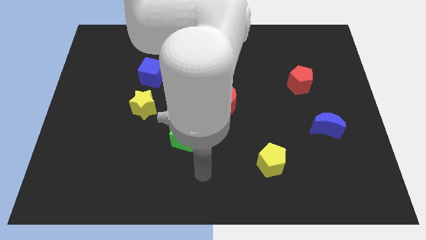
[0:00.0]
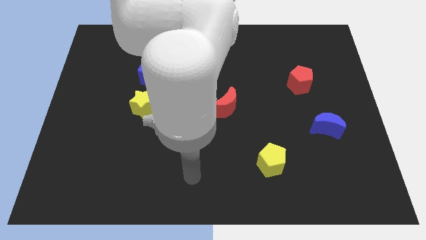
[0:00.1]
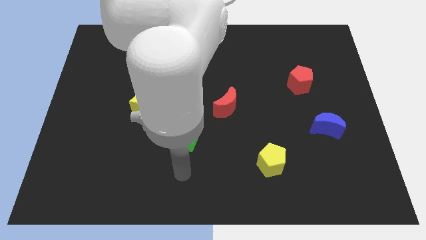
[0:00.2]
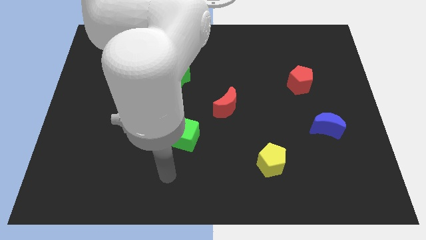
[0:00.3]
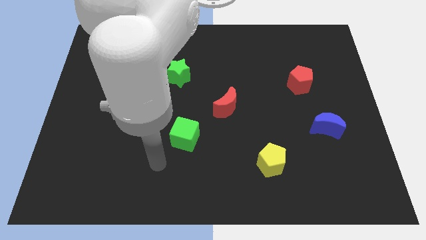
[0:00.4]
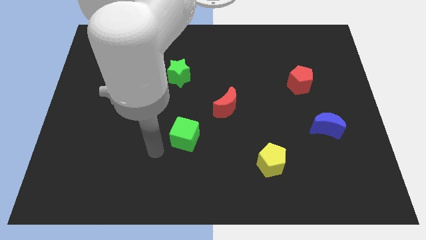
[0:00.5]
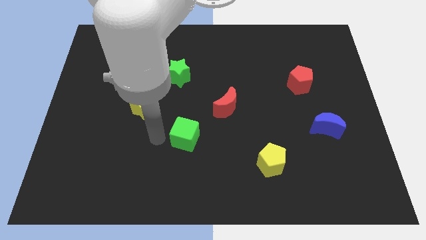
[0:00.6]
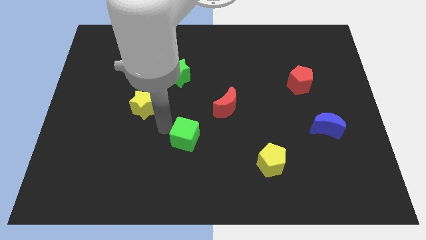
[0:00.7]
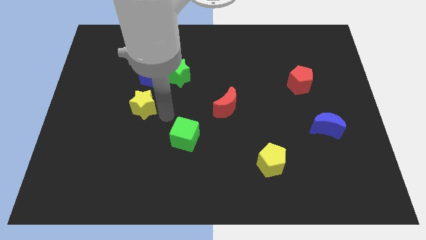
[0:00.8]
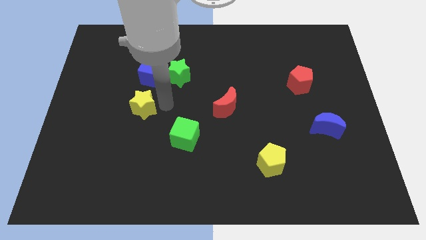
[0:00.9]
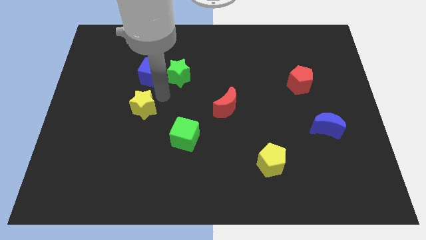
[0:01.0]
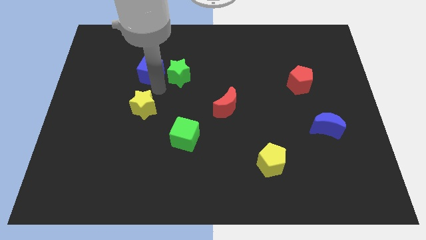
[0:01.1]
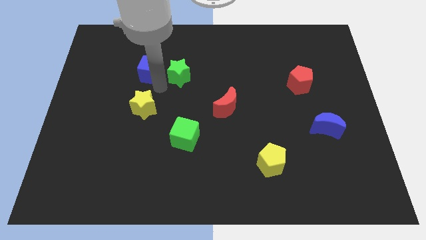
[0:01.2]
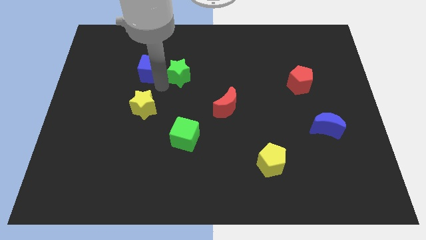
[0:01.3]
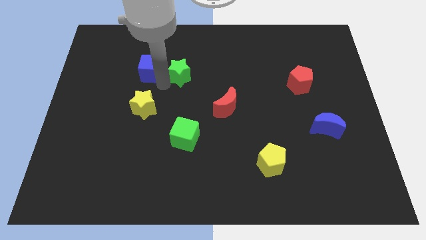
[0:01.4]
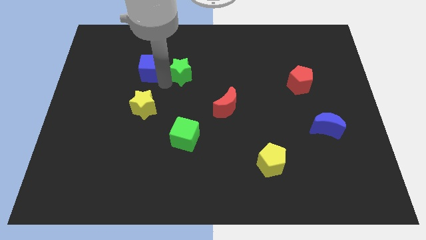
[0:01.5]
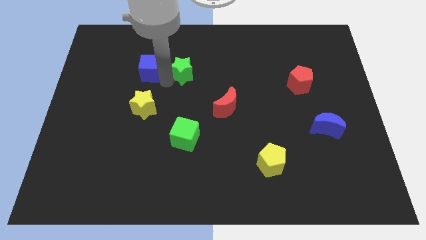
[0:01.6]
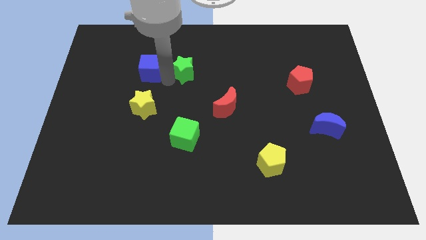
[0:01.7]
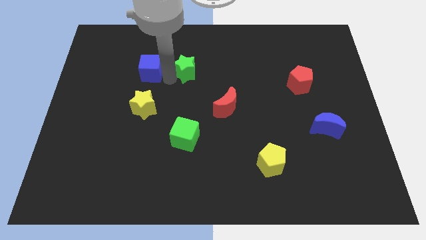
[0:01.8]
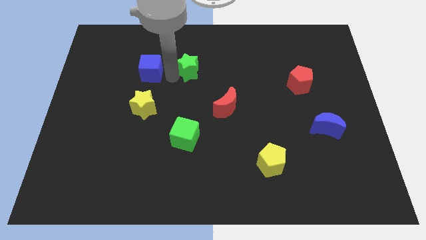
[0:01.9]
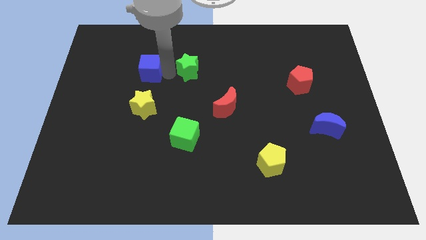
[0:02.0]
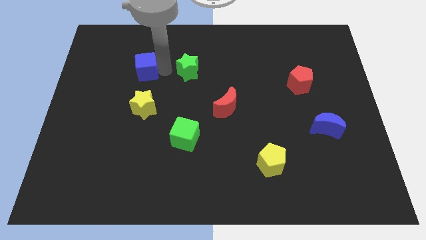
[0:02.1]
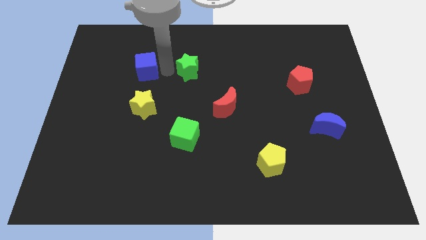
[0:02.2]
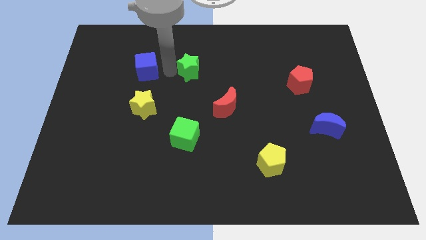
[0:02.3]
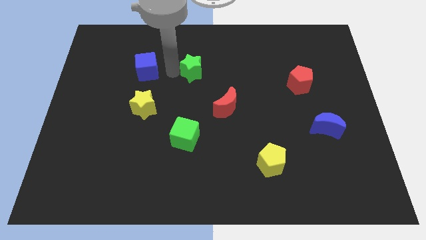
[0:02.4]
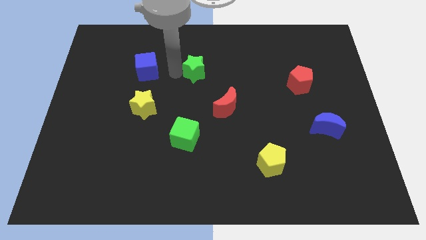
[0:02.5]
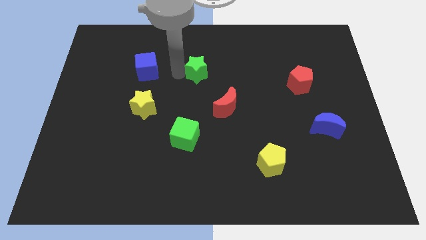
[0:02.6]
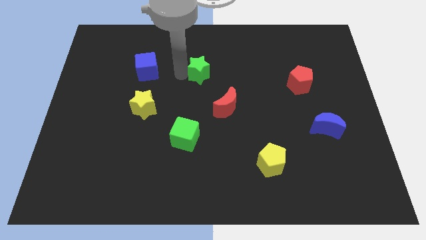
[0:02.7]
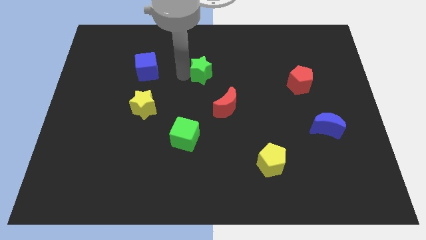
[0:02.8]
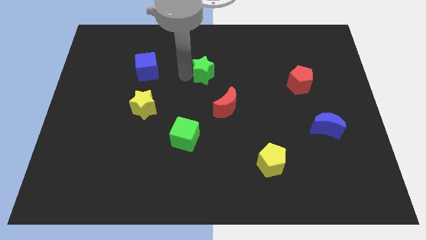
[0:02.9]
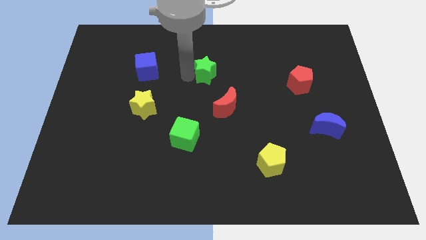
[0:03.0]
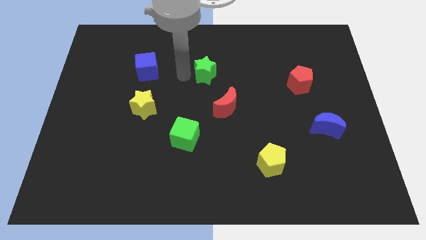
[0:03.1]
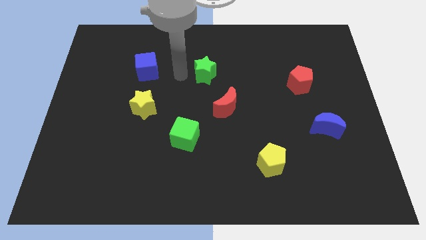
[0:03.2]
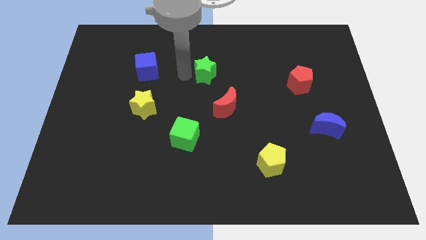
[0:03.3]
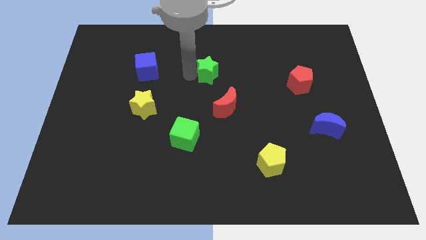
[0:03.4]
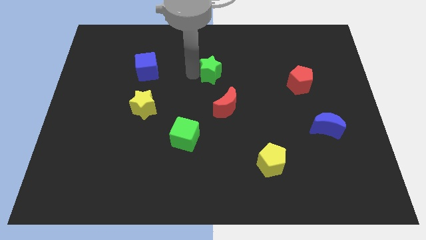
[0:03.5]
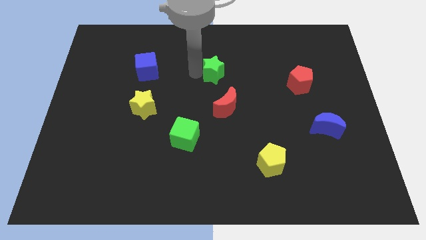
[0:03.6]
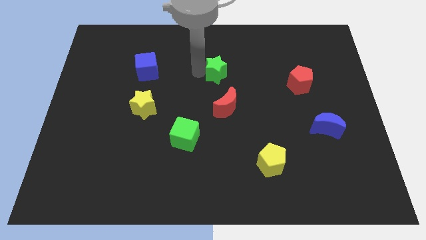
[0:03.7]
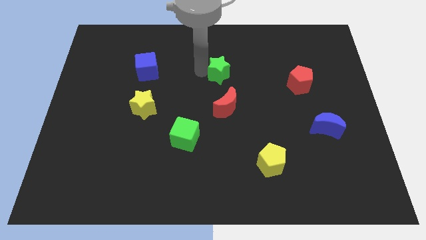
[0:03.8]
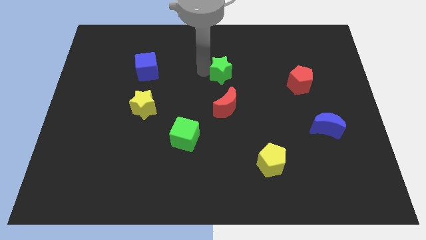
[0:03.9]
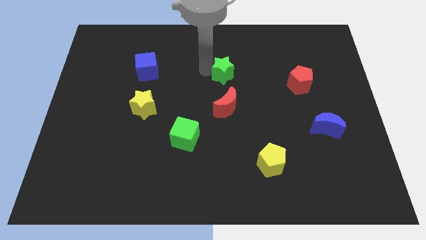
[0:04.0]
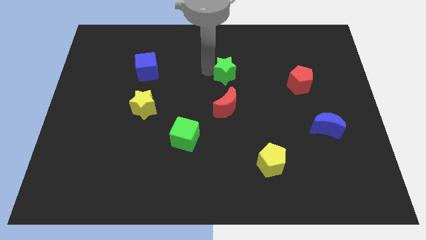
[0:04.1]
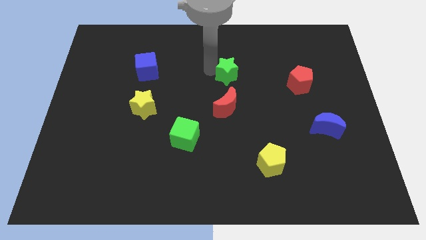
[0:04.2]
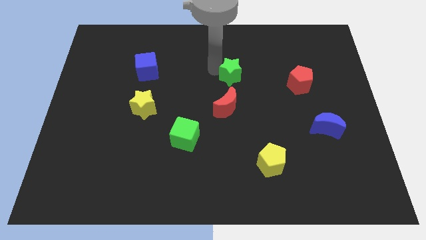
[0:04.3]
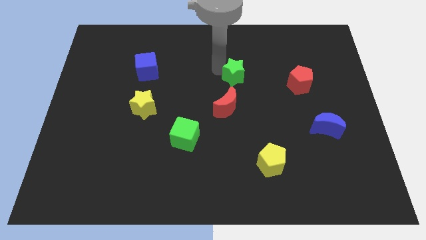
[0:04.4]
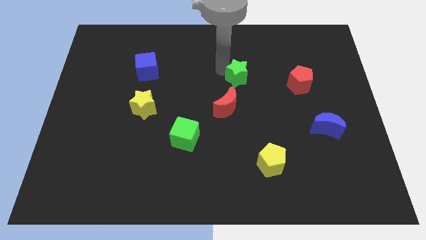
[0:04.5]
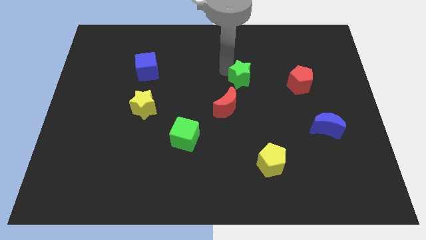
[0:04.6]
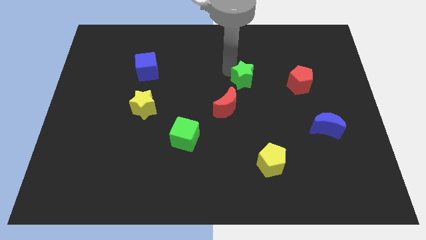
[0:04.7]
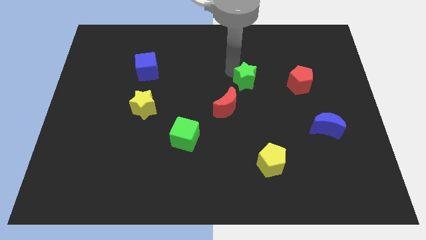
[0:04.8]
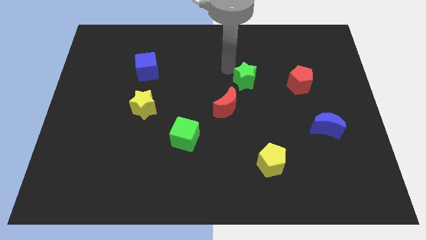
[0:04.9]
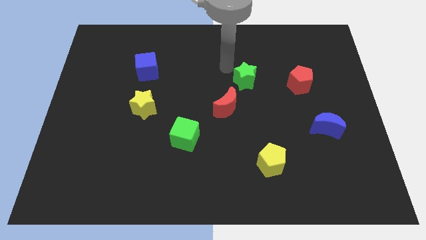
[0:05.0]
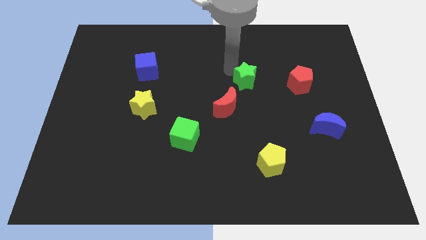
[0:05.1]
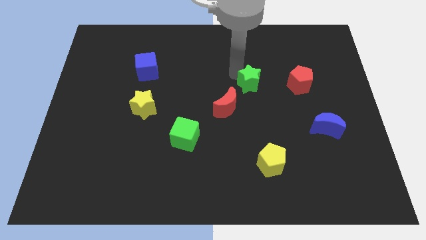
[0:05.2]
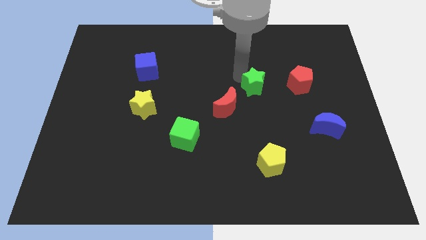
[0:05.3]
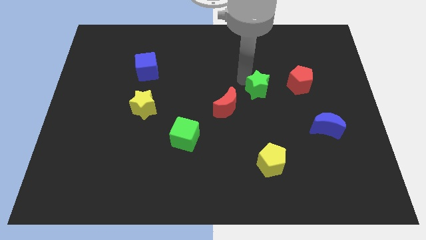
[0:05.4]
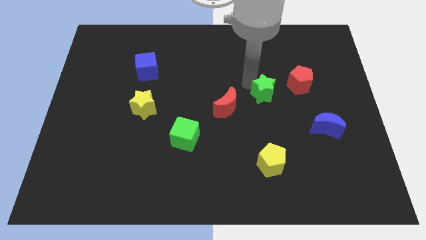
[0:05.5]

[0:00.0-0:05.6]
move the green star to the bottom left side of the red pentagon

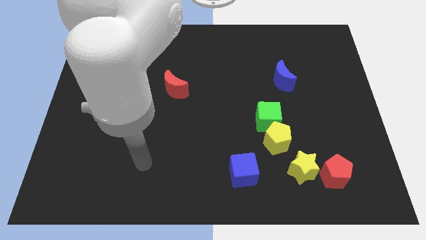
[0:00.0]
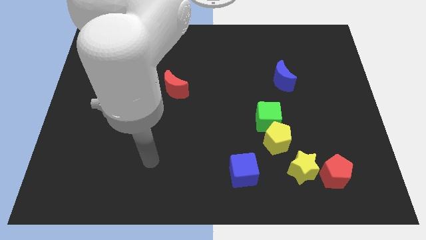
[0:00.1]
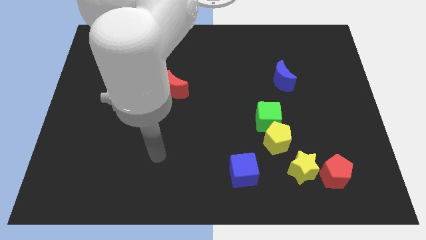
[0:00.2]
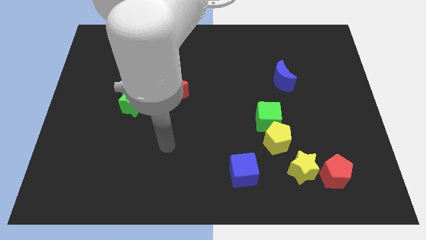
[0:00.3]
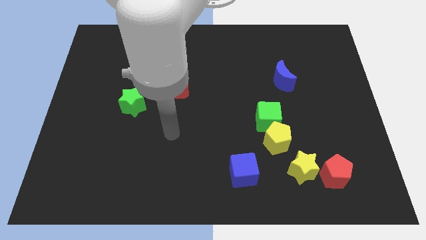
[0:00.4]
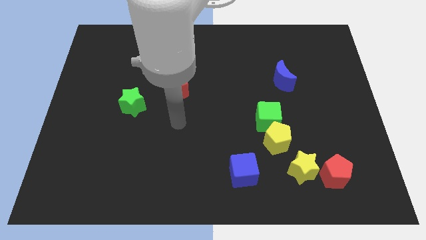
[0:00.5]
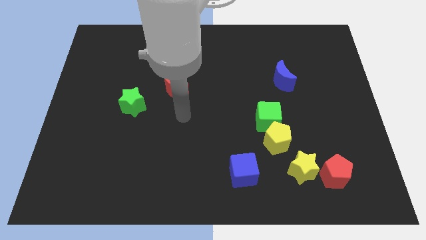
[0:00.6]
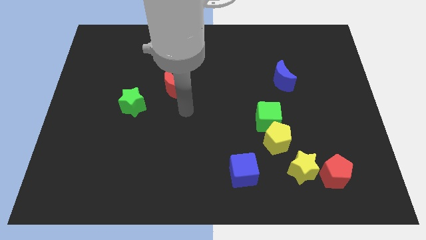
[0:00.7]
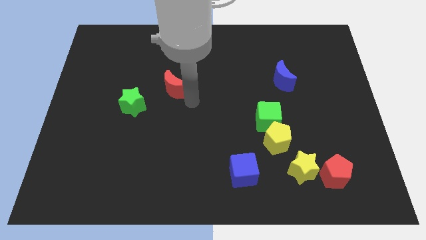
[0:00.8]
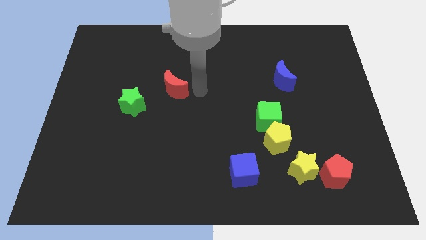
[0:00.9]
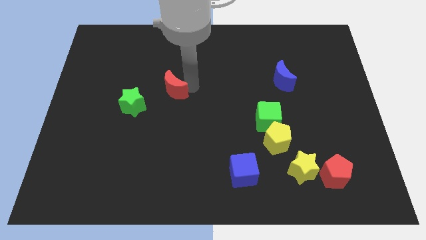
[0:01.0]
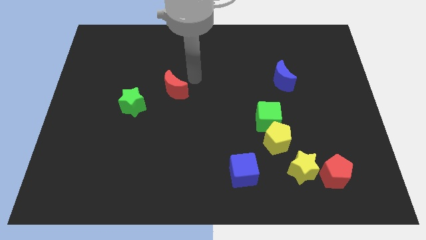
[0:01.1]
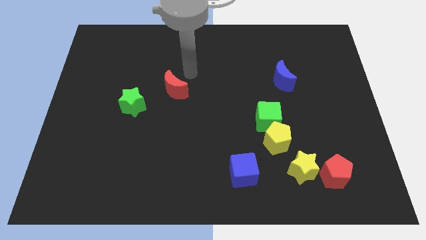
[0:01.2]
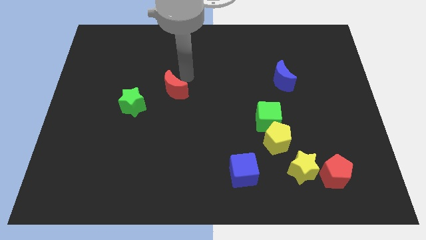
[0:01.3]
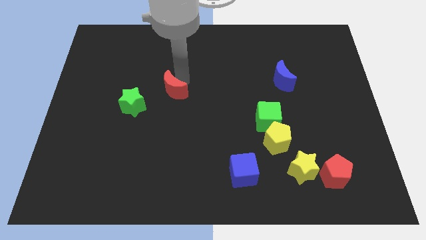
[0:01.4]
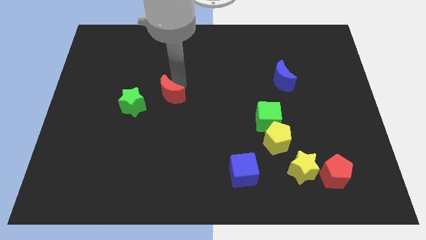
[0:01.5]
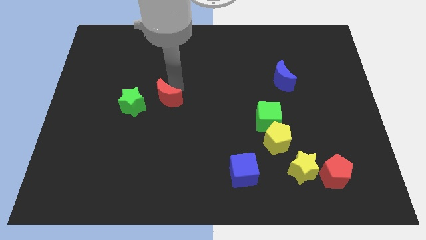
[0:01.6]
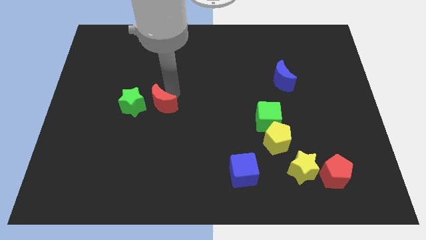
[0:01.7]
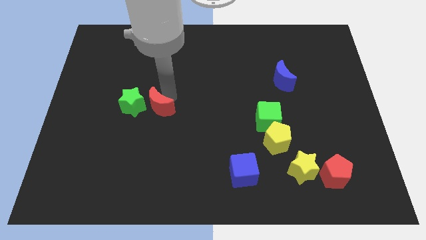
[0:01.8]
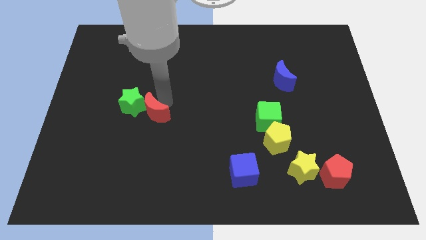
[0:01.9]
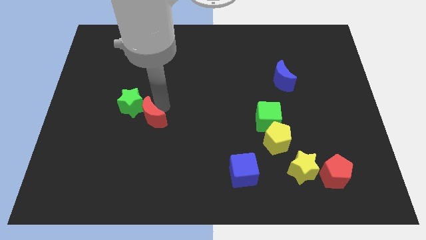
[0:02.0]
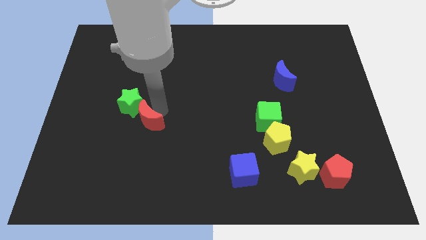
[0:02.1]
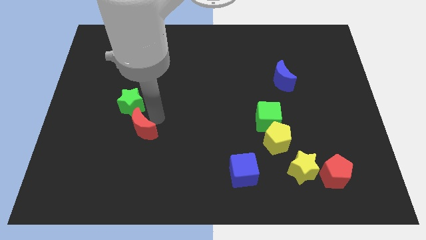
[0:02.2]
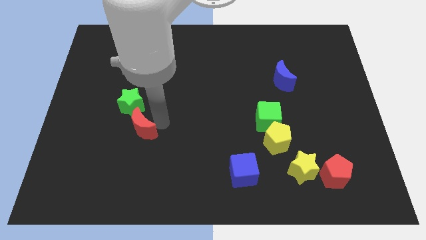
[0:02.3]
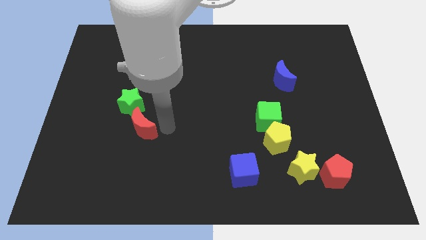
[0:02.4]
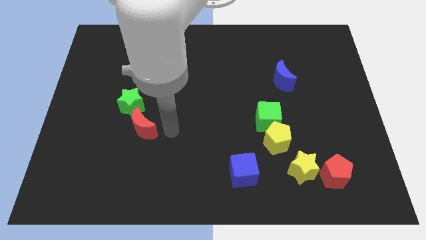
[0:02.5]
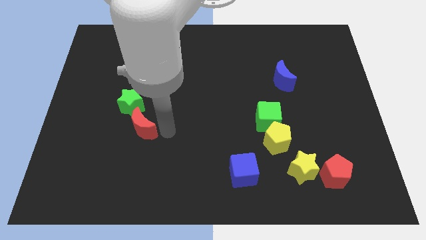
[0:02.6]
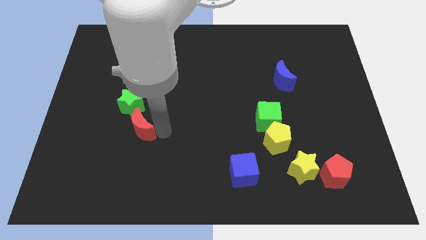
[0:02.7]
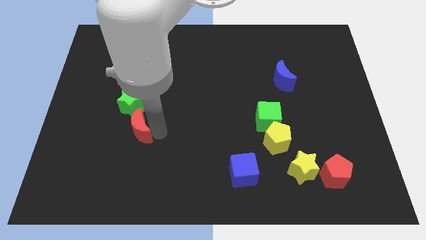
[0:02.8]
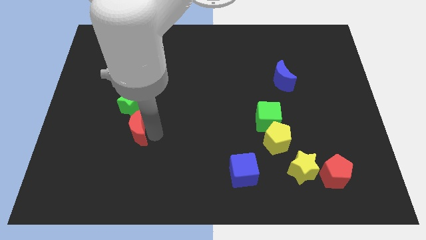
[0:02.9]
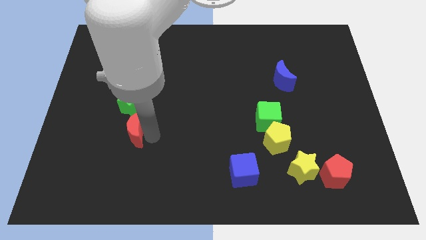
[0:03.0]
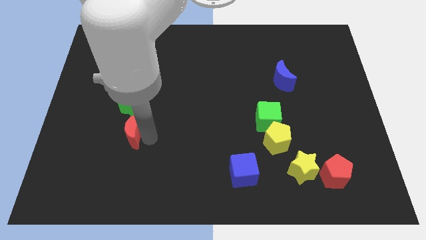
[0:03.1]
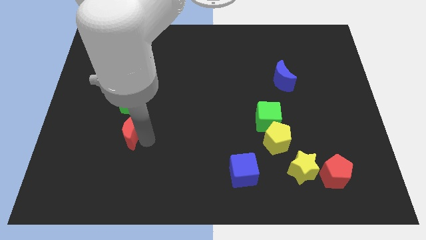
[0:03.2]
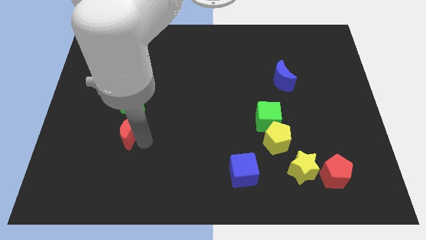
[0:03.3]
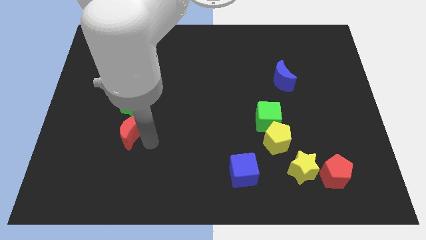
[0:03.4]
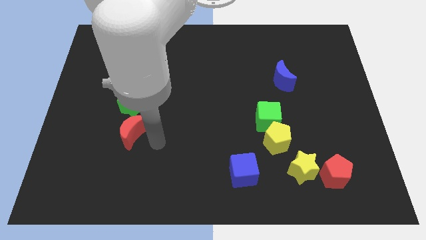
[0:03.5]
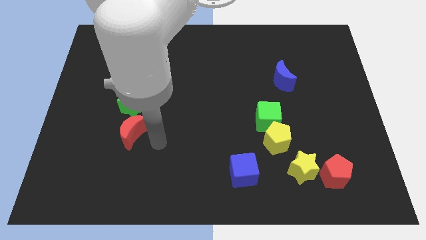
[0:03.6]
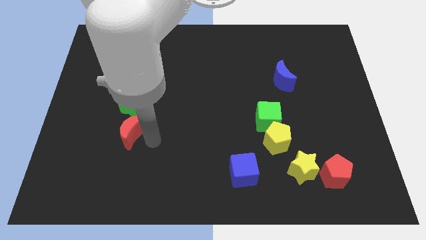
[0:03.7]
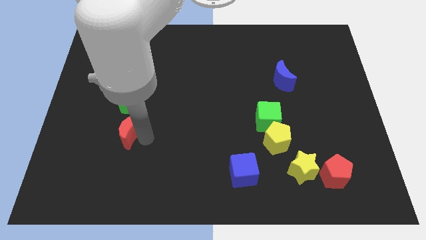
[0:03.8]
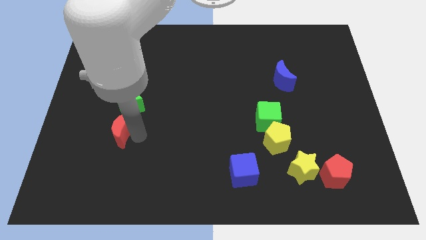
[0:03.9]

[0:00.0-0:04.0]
put the red moon to the bottom left of the green star
